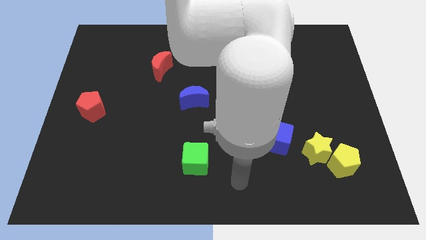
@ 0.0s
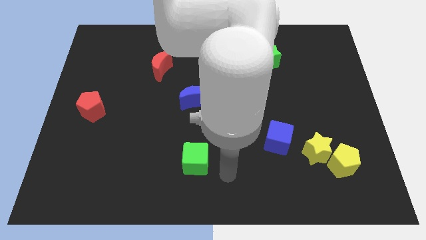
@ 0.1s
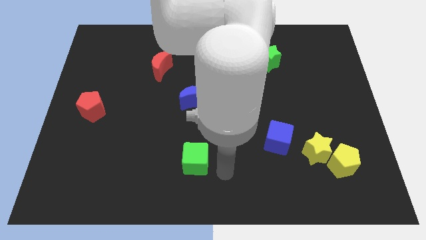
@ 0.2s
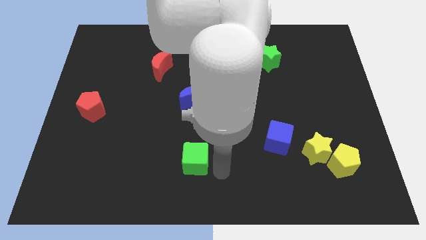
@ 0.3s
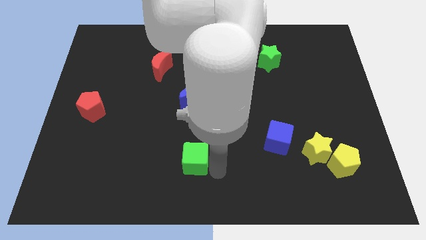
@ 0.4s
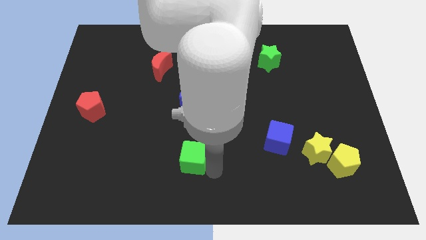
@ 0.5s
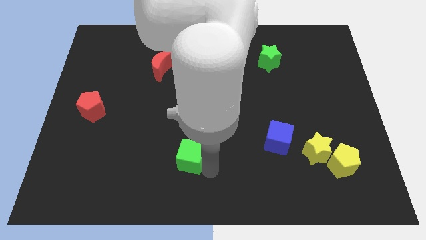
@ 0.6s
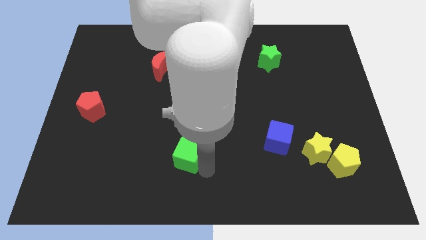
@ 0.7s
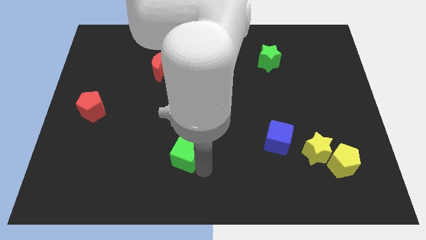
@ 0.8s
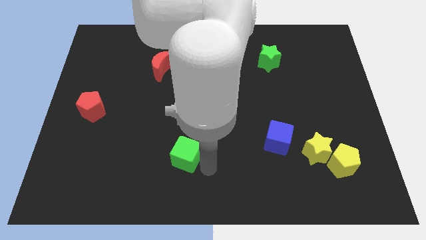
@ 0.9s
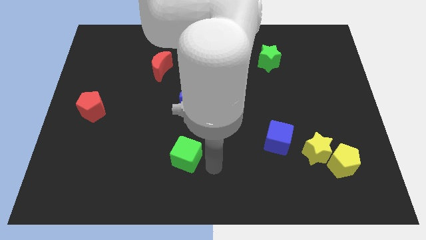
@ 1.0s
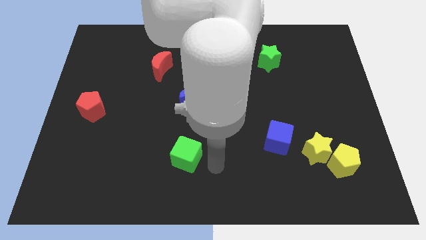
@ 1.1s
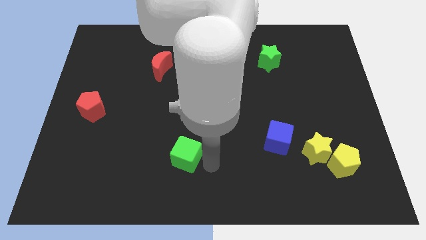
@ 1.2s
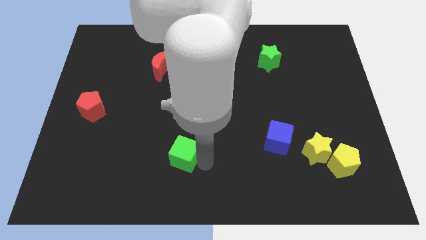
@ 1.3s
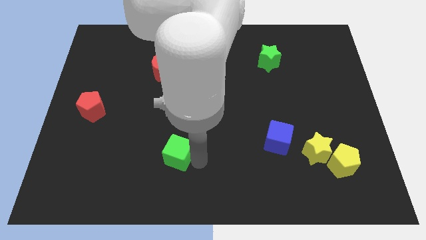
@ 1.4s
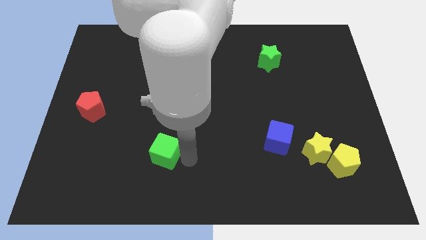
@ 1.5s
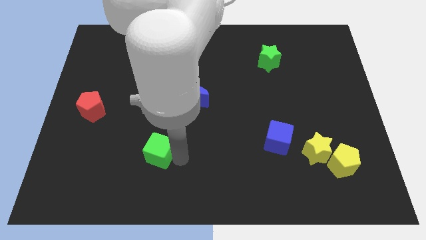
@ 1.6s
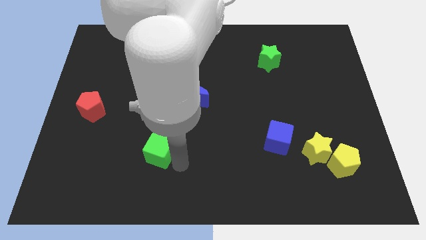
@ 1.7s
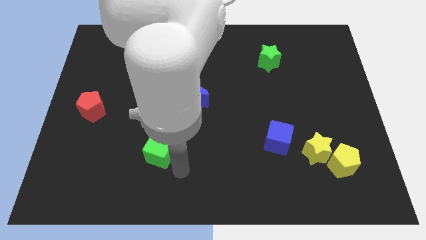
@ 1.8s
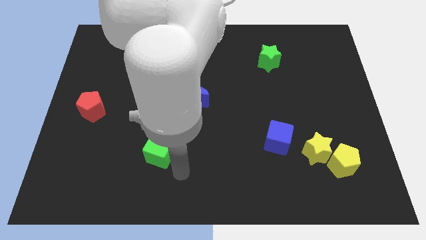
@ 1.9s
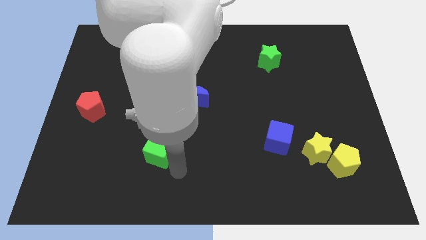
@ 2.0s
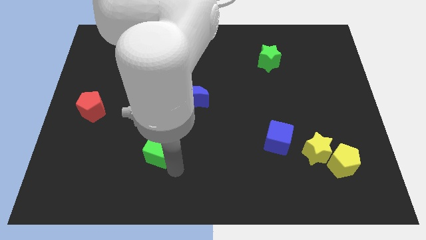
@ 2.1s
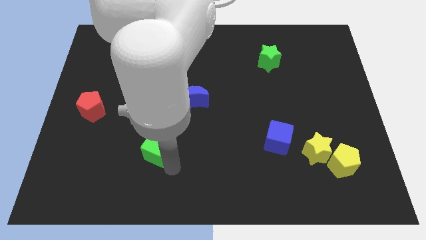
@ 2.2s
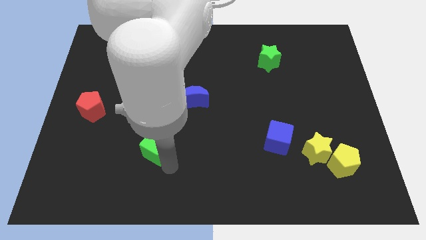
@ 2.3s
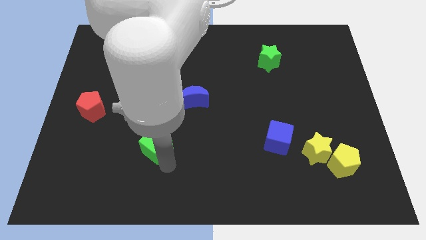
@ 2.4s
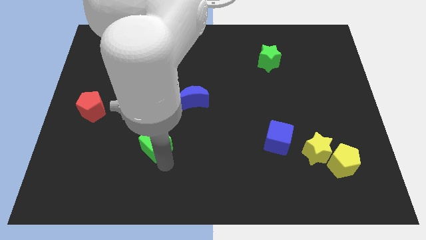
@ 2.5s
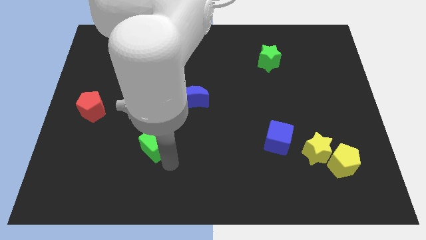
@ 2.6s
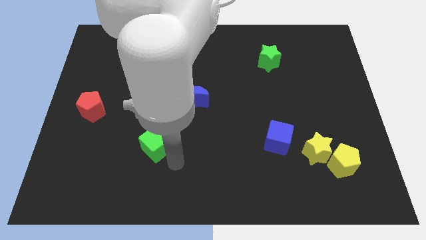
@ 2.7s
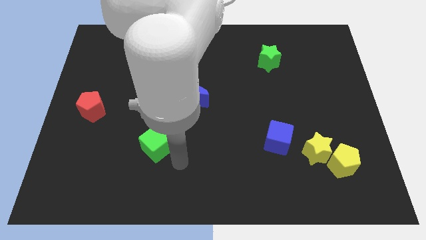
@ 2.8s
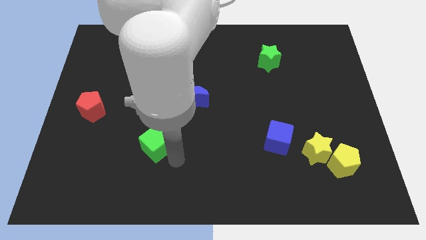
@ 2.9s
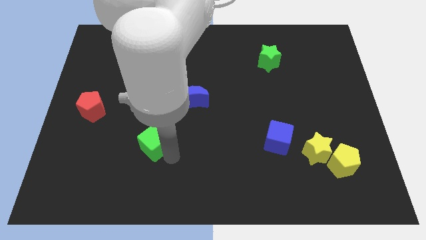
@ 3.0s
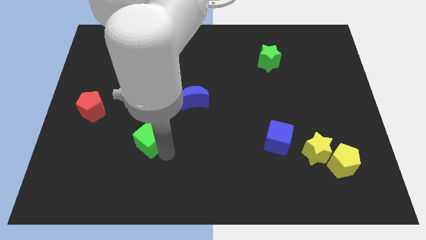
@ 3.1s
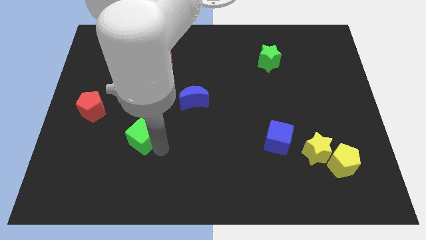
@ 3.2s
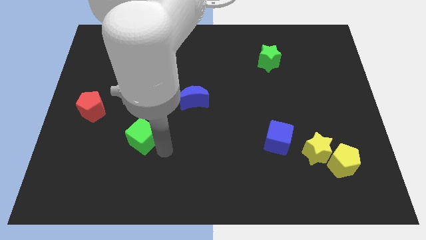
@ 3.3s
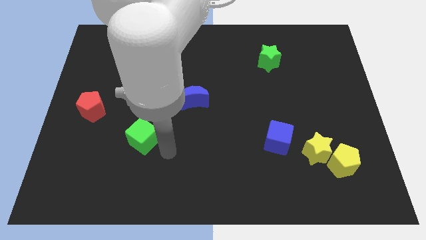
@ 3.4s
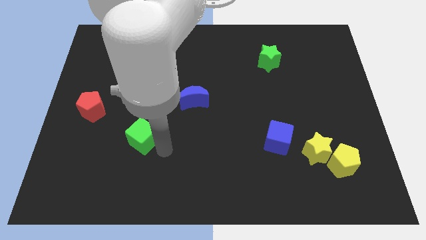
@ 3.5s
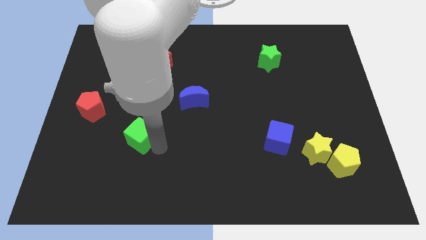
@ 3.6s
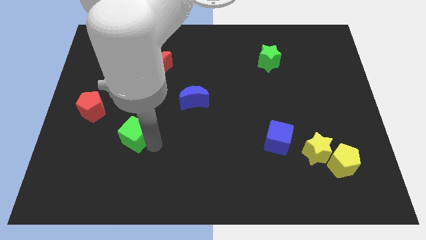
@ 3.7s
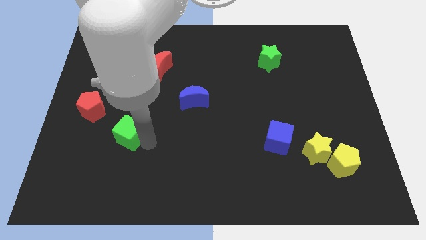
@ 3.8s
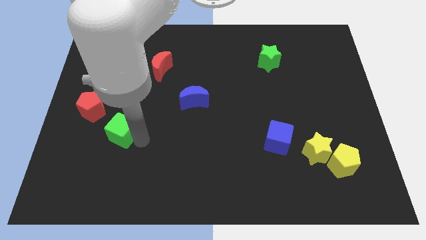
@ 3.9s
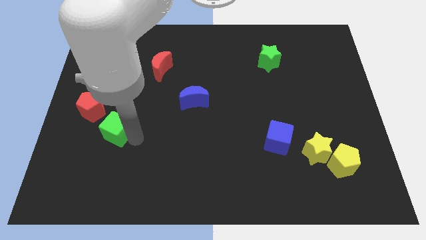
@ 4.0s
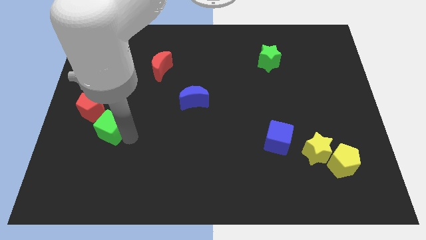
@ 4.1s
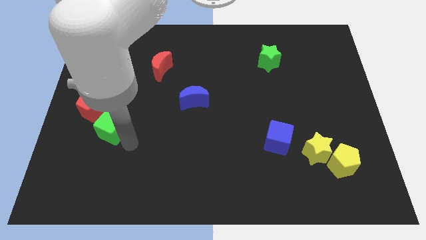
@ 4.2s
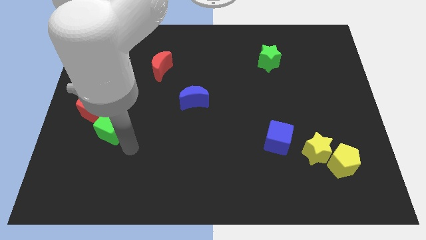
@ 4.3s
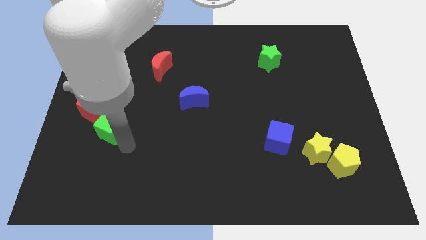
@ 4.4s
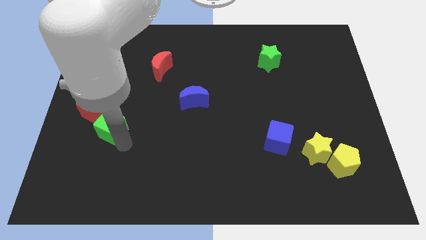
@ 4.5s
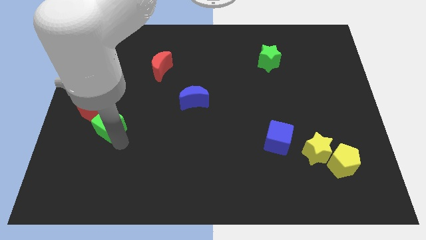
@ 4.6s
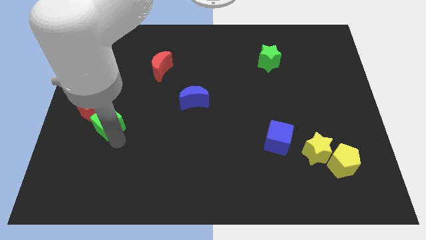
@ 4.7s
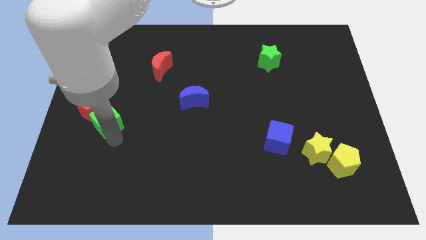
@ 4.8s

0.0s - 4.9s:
slide the green cube to the red pentagon

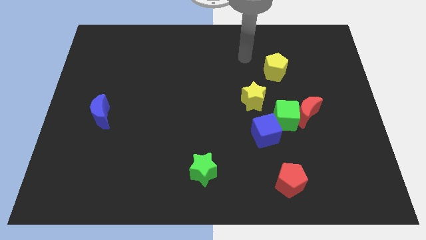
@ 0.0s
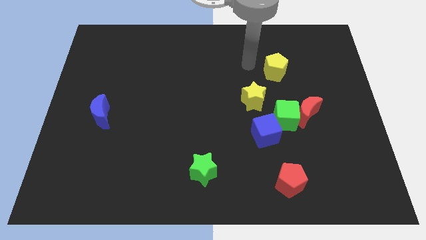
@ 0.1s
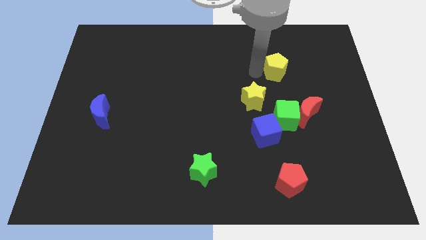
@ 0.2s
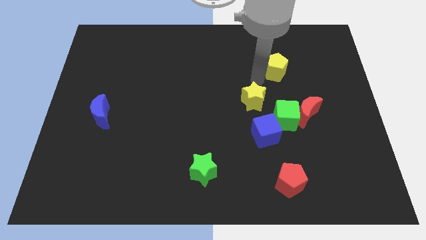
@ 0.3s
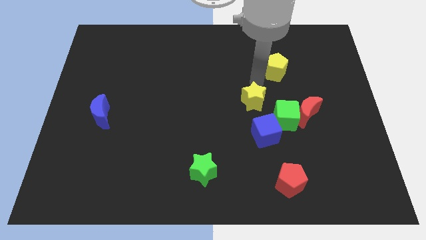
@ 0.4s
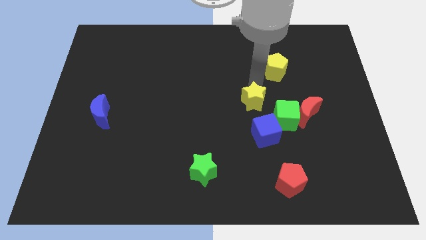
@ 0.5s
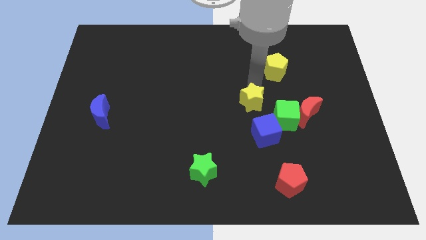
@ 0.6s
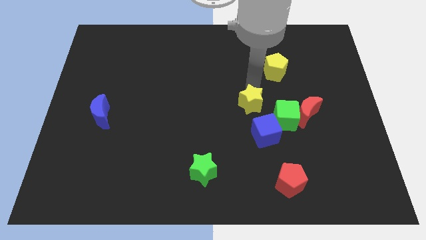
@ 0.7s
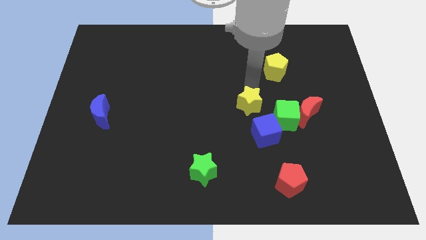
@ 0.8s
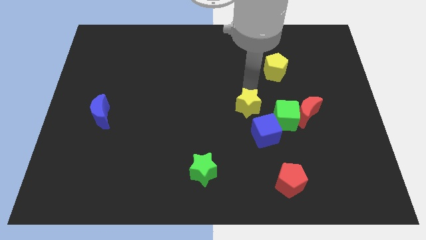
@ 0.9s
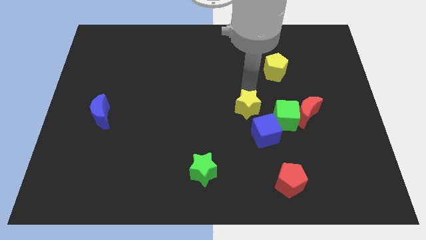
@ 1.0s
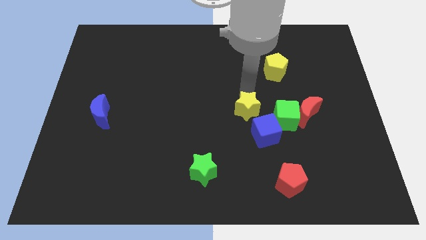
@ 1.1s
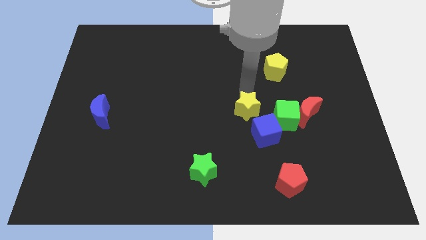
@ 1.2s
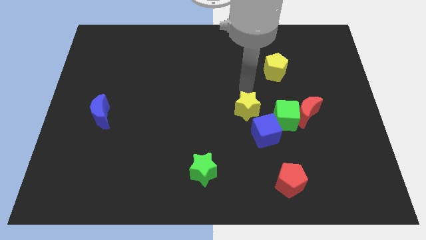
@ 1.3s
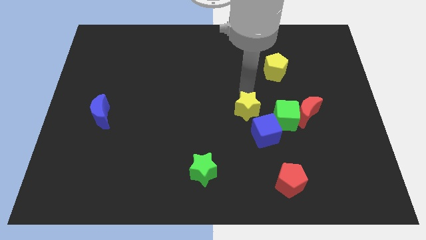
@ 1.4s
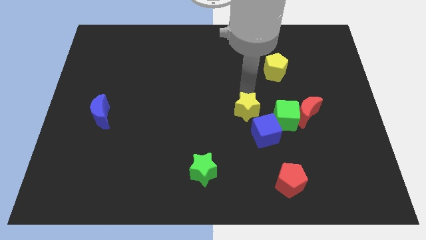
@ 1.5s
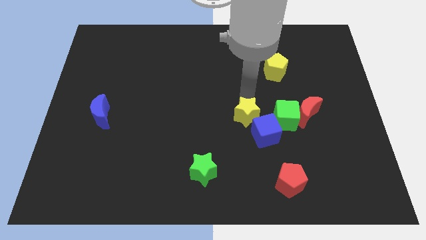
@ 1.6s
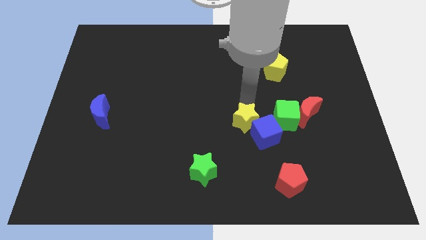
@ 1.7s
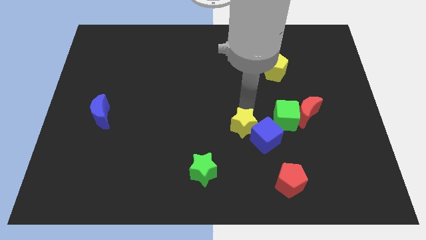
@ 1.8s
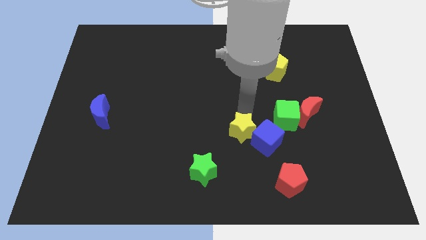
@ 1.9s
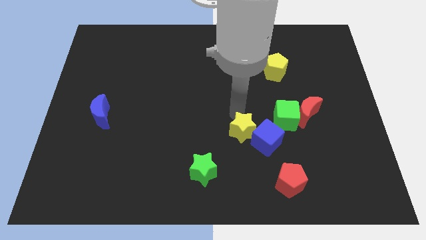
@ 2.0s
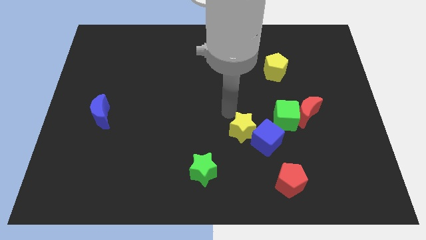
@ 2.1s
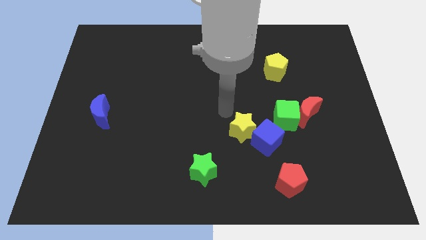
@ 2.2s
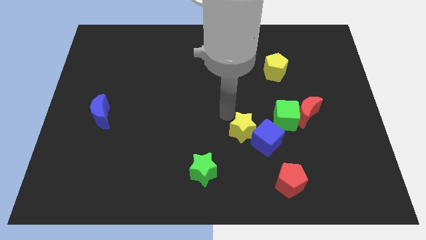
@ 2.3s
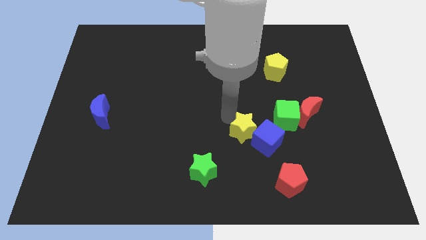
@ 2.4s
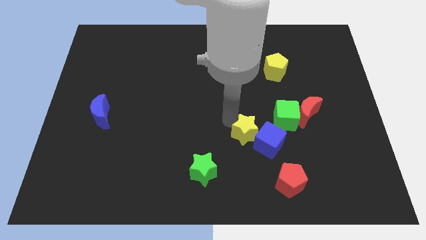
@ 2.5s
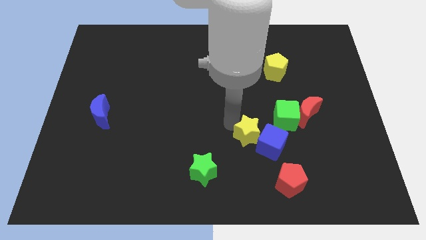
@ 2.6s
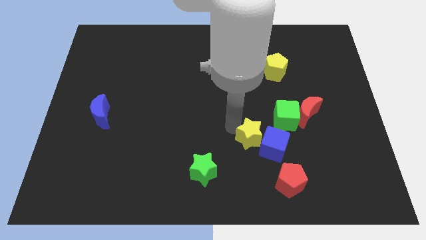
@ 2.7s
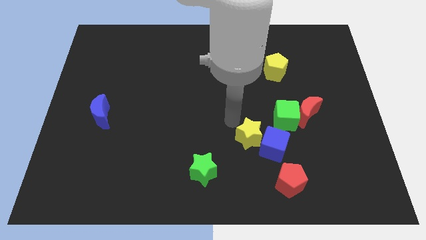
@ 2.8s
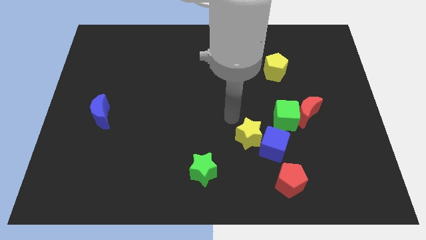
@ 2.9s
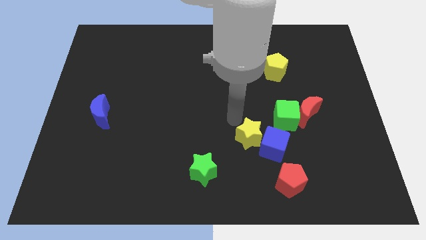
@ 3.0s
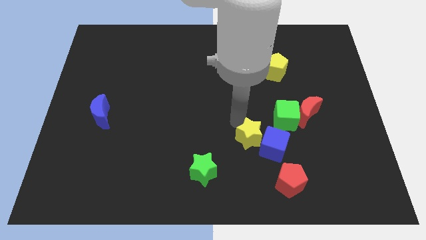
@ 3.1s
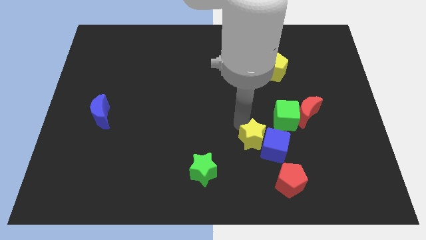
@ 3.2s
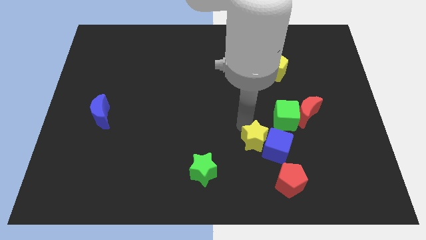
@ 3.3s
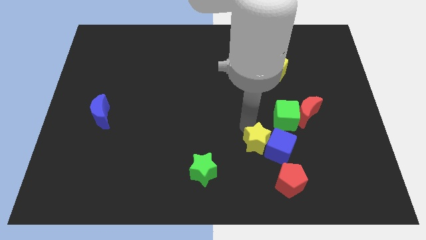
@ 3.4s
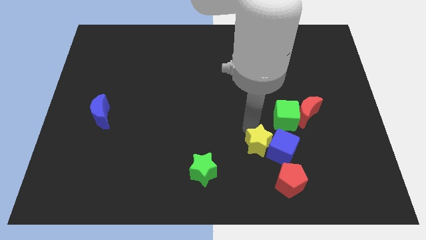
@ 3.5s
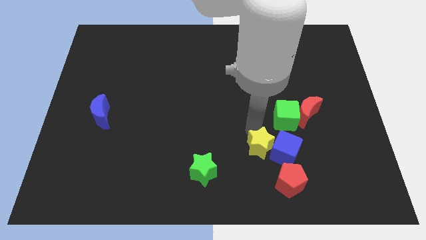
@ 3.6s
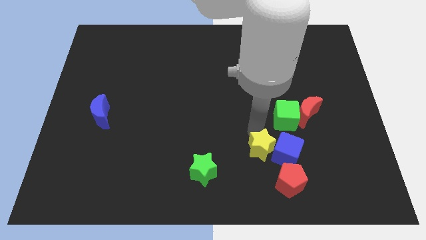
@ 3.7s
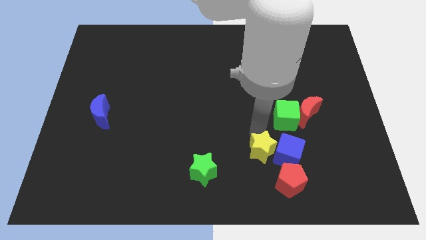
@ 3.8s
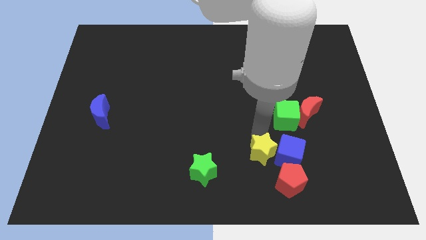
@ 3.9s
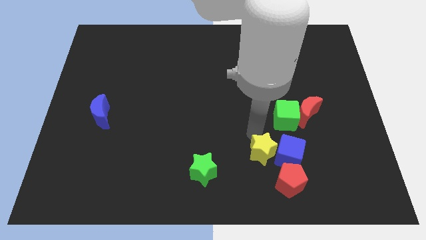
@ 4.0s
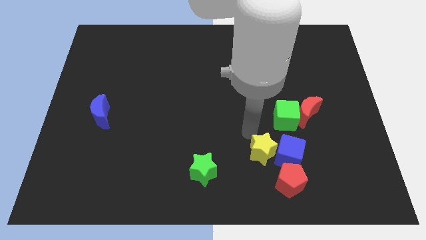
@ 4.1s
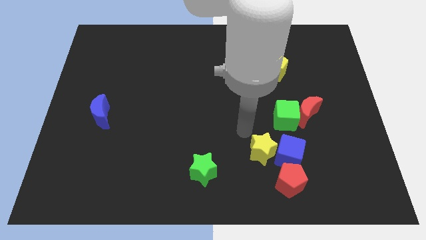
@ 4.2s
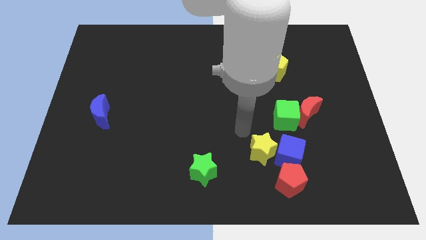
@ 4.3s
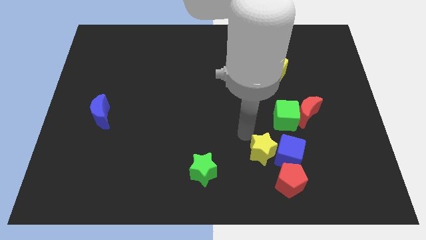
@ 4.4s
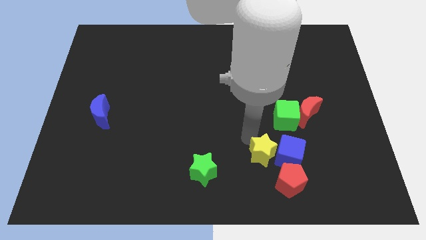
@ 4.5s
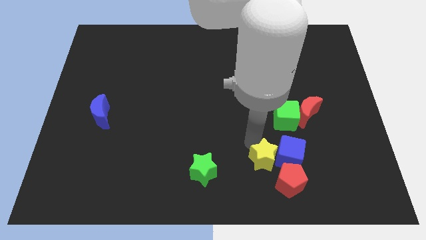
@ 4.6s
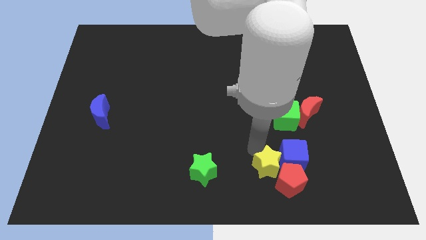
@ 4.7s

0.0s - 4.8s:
put the yellow star close to the red pentagon
